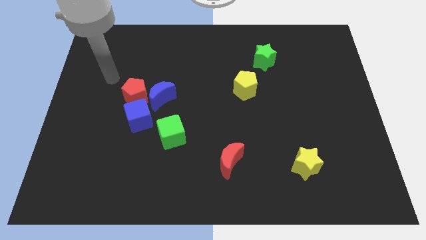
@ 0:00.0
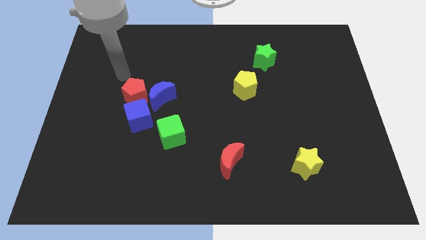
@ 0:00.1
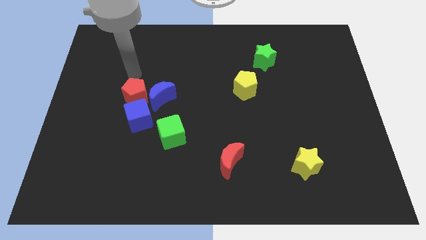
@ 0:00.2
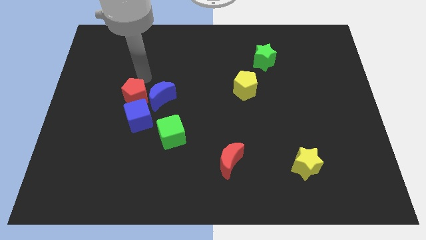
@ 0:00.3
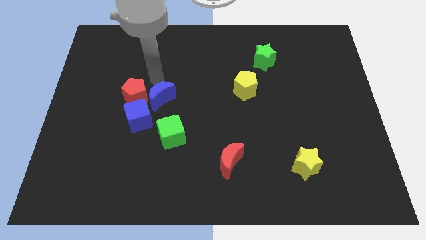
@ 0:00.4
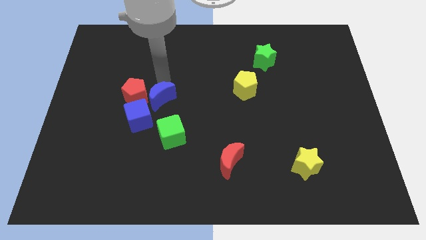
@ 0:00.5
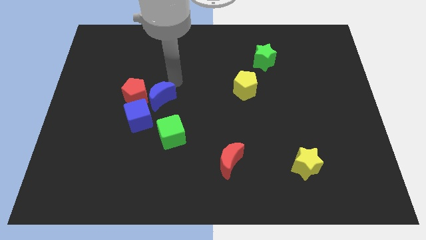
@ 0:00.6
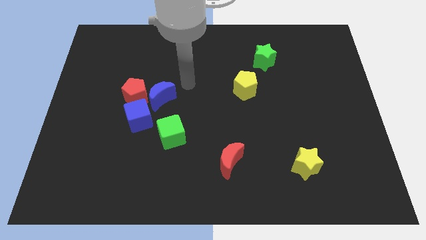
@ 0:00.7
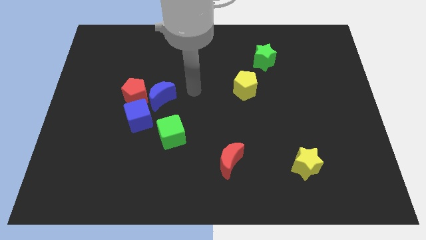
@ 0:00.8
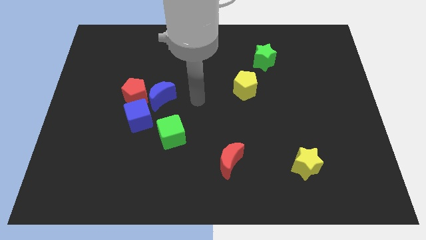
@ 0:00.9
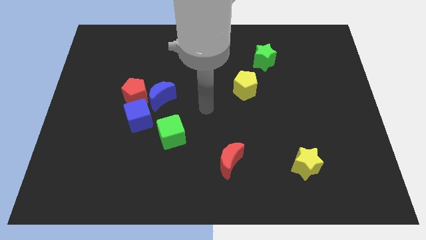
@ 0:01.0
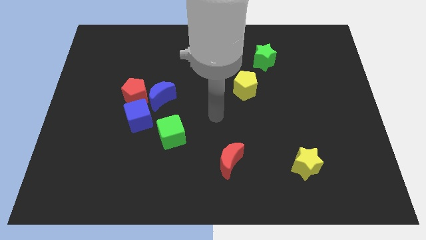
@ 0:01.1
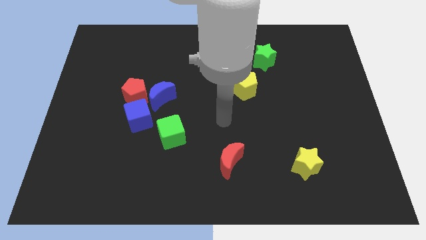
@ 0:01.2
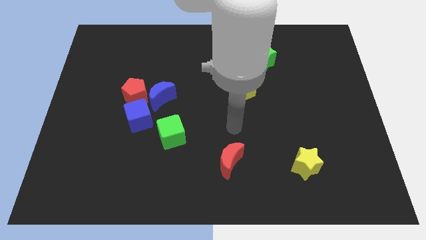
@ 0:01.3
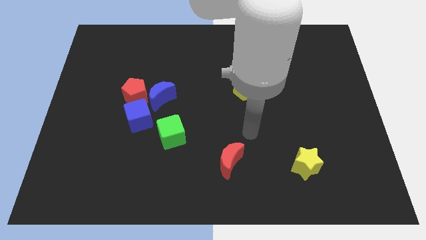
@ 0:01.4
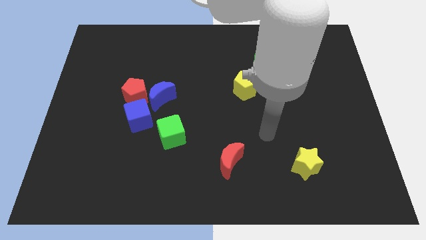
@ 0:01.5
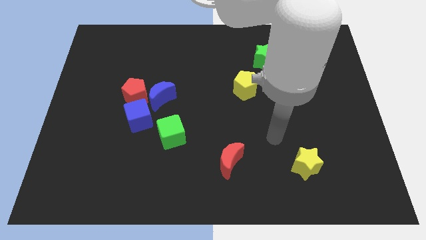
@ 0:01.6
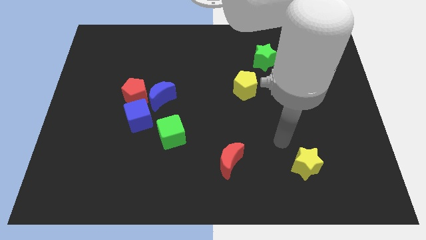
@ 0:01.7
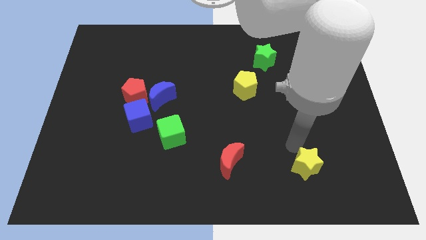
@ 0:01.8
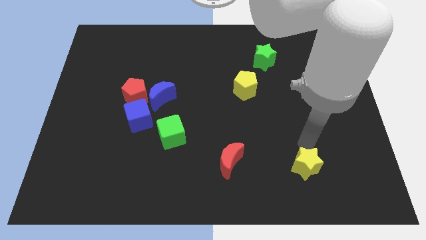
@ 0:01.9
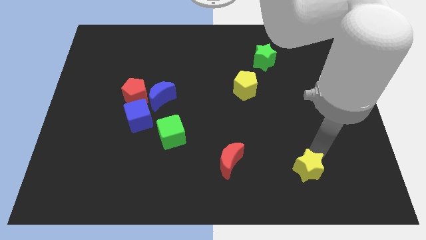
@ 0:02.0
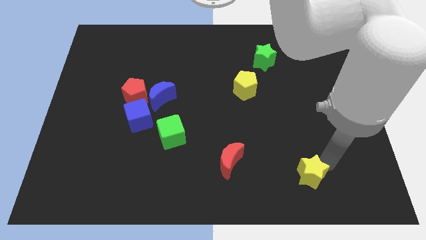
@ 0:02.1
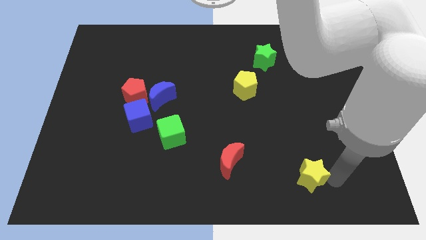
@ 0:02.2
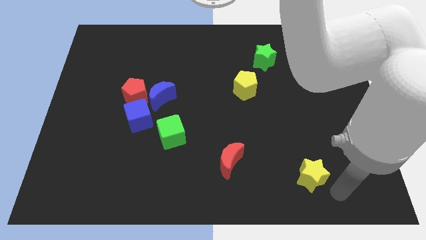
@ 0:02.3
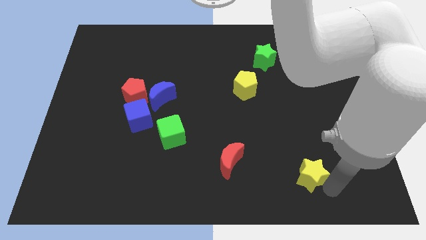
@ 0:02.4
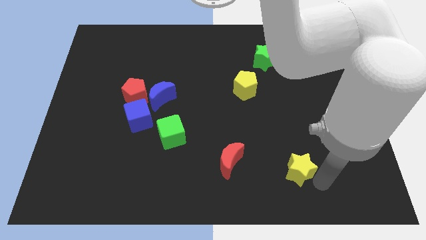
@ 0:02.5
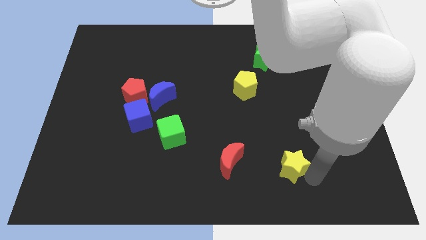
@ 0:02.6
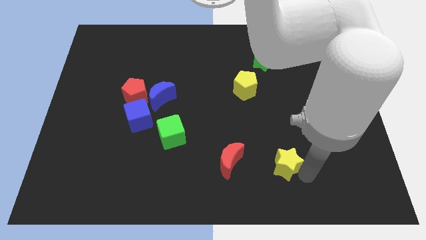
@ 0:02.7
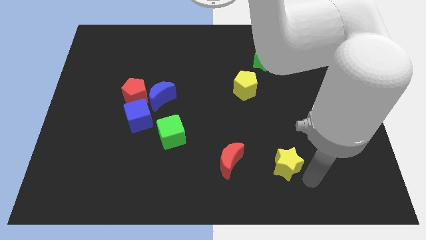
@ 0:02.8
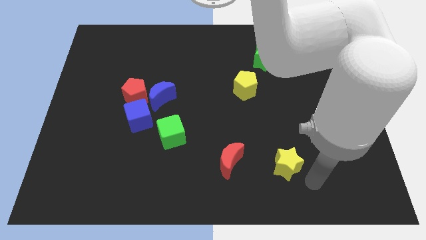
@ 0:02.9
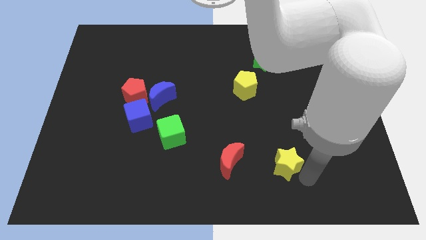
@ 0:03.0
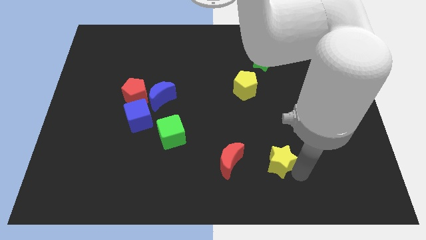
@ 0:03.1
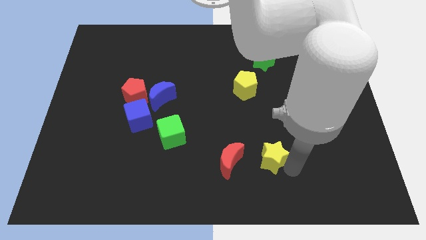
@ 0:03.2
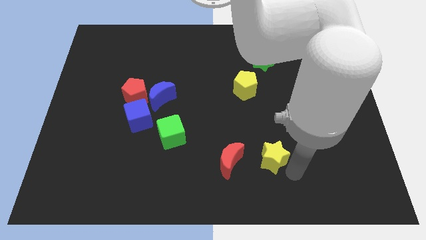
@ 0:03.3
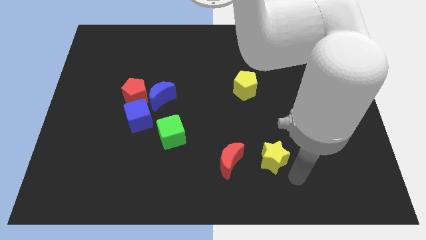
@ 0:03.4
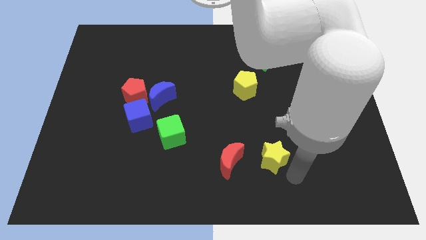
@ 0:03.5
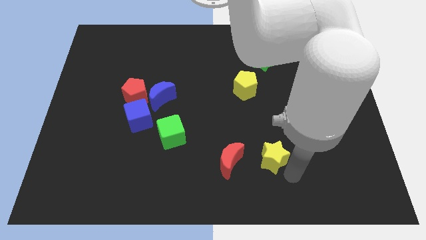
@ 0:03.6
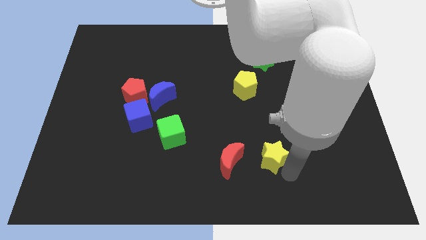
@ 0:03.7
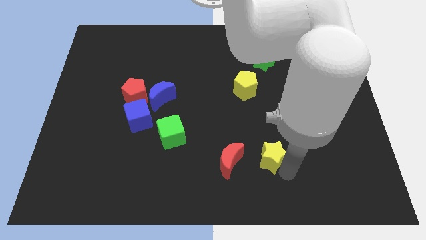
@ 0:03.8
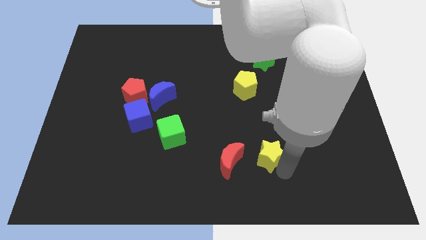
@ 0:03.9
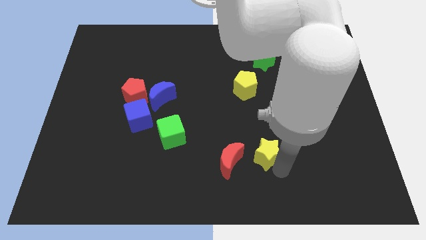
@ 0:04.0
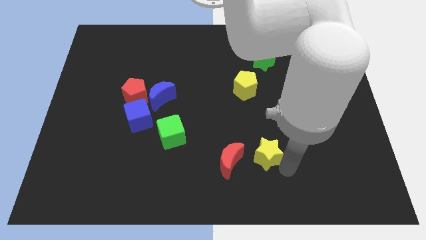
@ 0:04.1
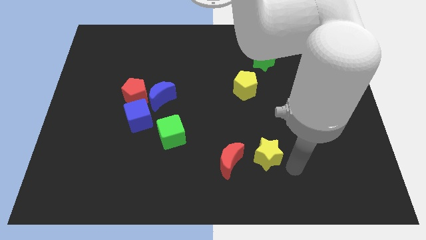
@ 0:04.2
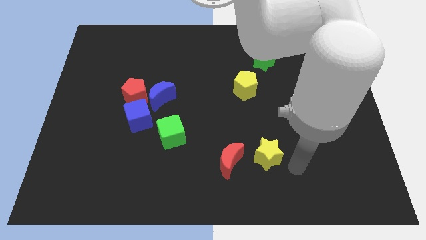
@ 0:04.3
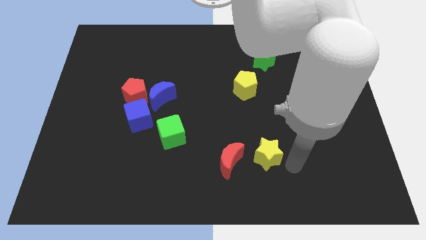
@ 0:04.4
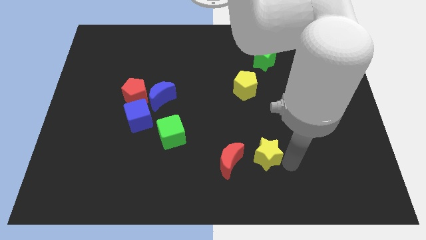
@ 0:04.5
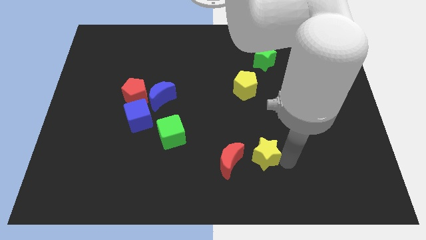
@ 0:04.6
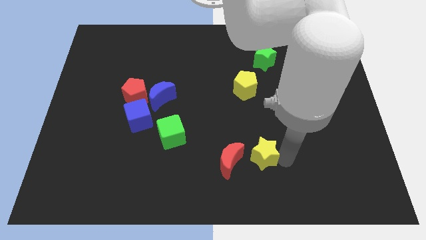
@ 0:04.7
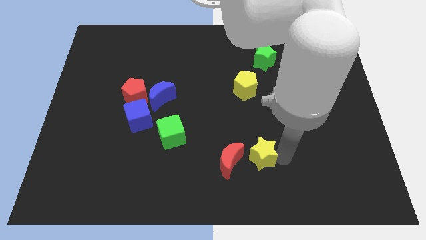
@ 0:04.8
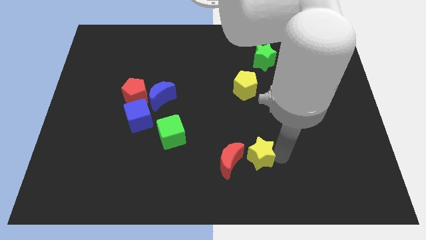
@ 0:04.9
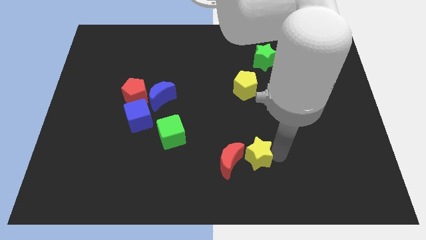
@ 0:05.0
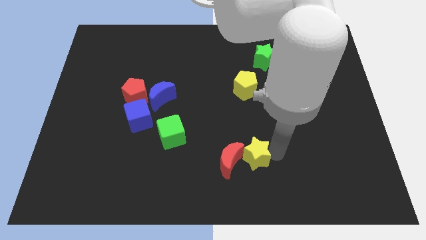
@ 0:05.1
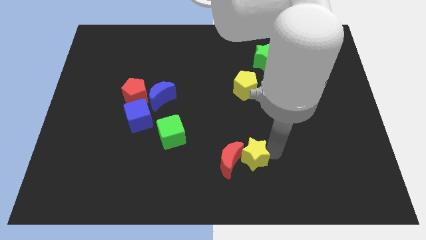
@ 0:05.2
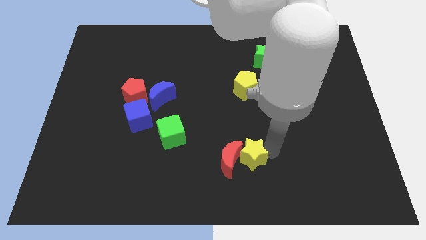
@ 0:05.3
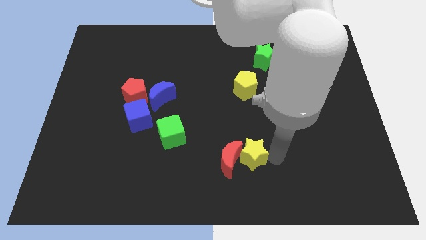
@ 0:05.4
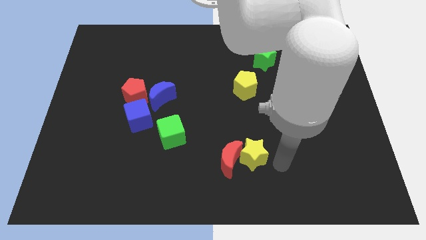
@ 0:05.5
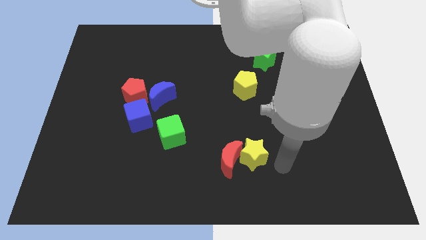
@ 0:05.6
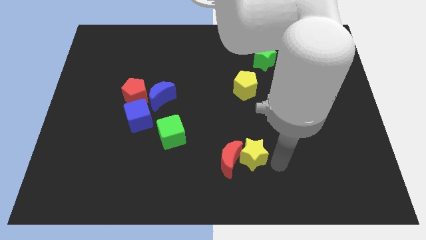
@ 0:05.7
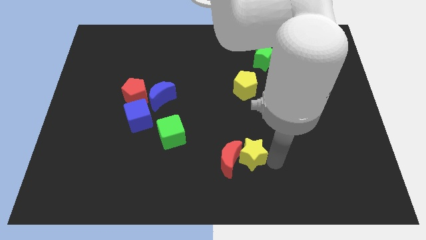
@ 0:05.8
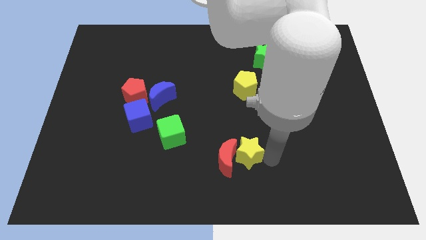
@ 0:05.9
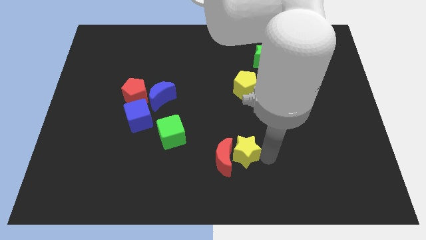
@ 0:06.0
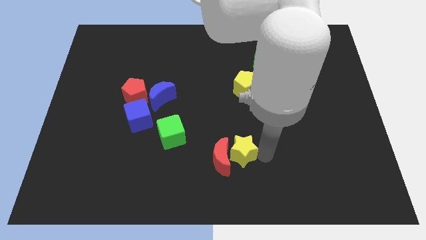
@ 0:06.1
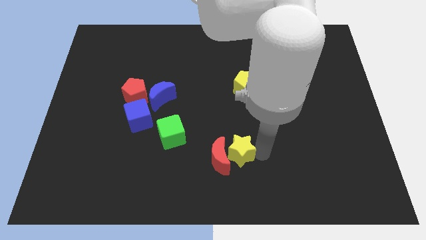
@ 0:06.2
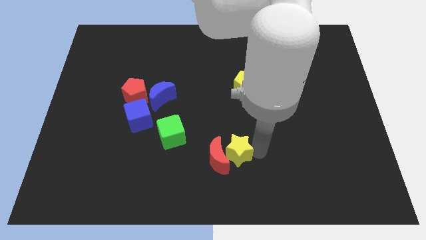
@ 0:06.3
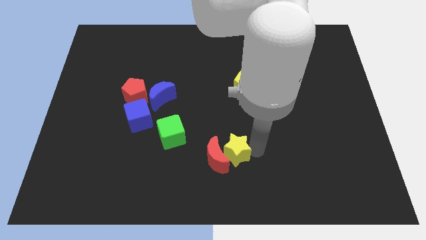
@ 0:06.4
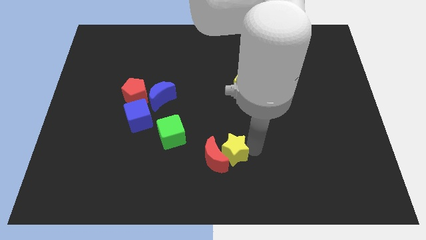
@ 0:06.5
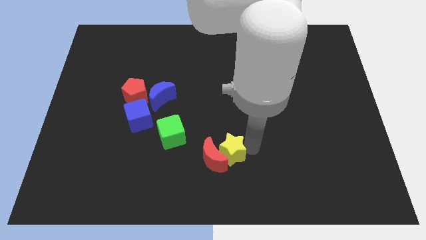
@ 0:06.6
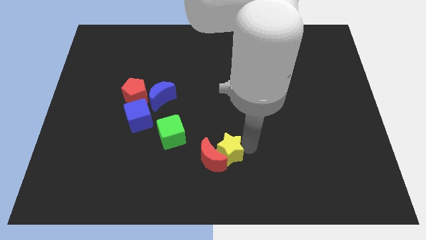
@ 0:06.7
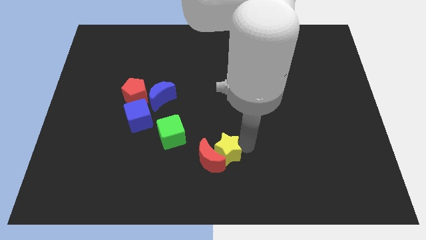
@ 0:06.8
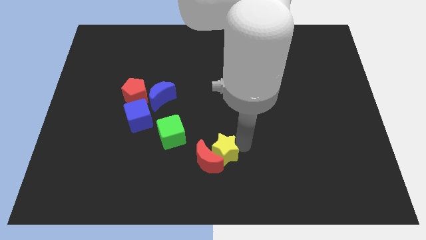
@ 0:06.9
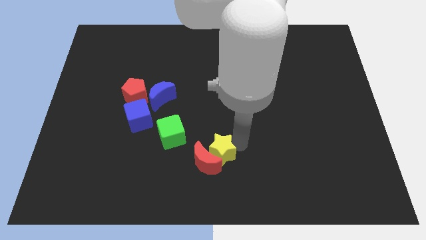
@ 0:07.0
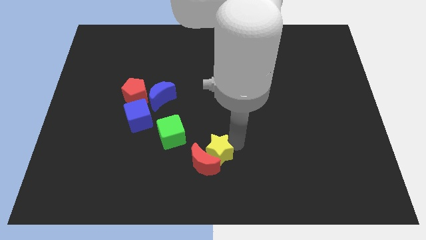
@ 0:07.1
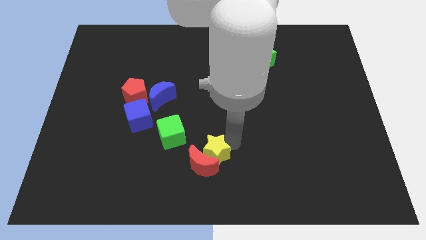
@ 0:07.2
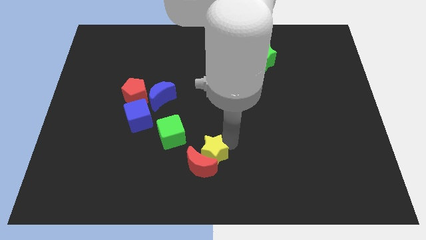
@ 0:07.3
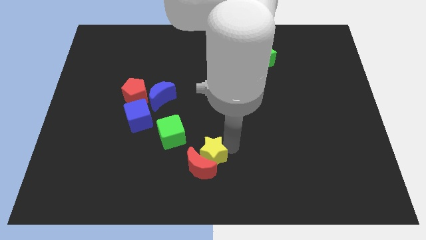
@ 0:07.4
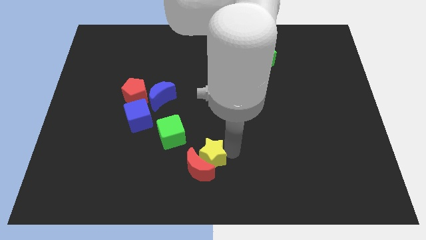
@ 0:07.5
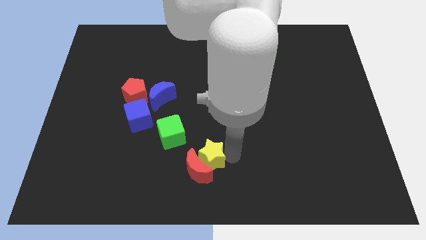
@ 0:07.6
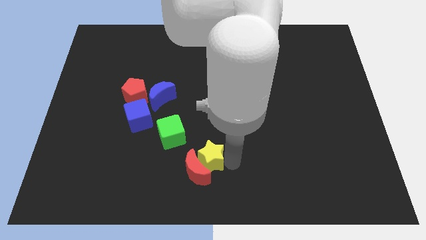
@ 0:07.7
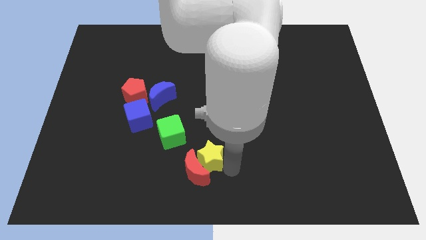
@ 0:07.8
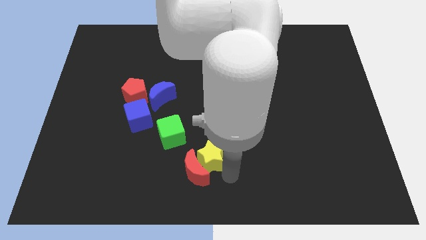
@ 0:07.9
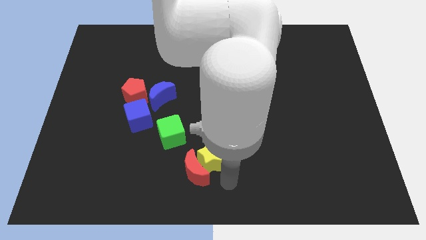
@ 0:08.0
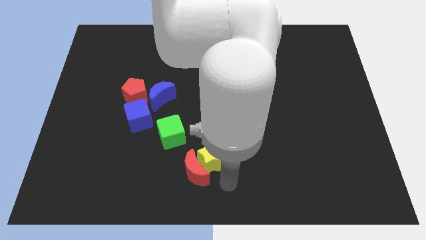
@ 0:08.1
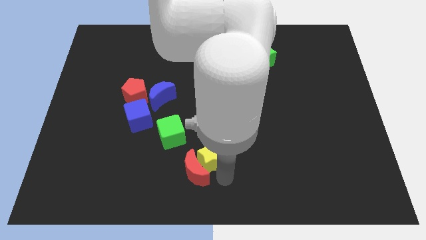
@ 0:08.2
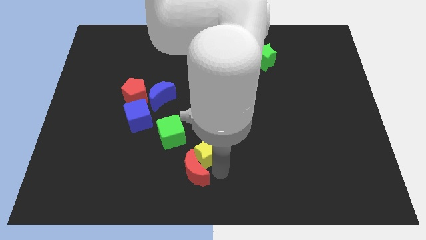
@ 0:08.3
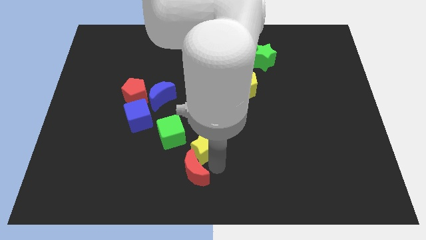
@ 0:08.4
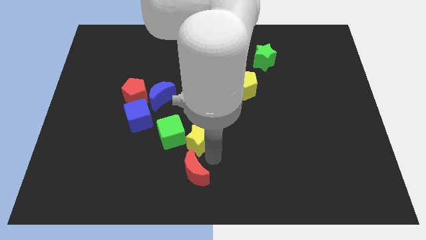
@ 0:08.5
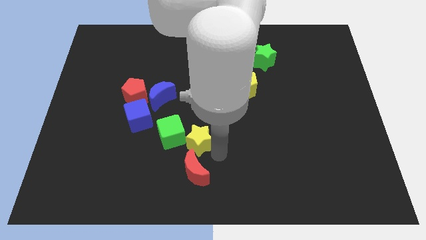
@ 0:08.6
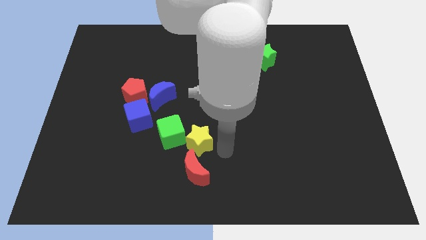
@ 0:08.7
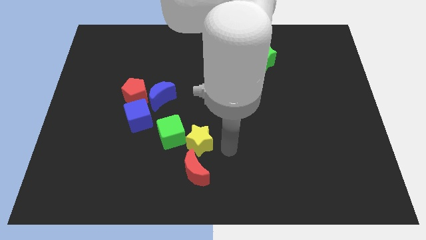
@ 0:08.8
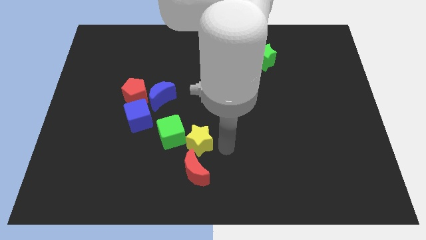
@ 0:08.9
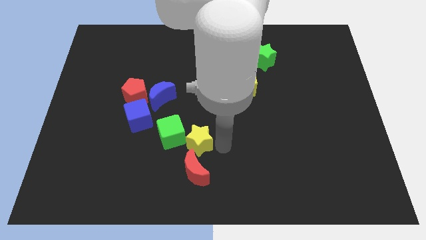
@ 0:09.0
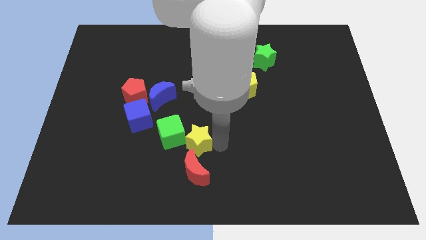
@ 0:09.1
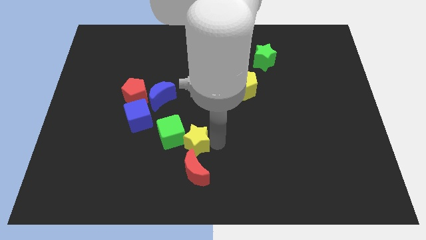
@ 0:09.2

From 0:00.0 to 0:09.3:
move the yellow star next to the green cube
